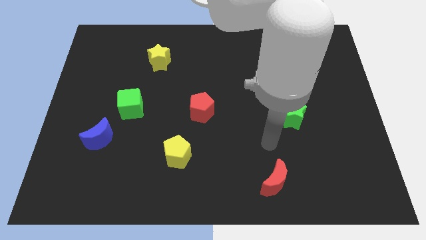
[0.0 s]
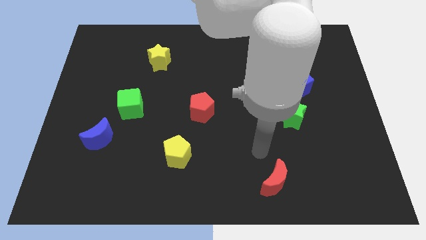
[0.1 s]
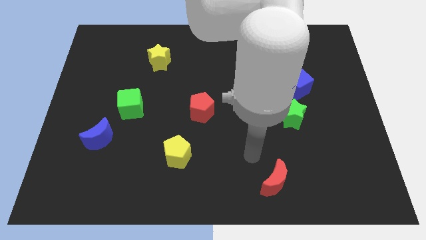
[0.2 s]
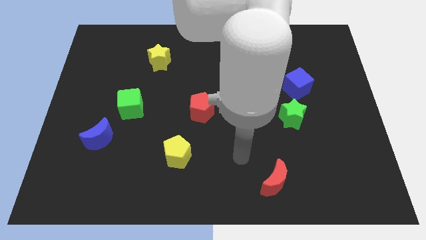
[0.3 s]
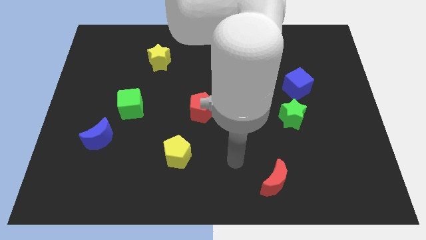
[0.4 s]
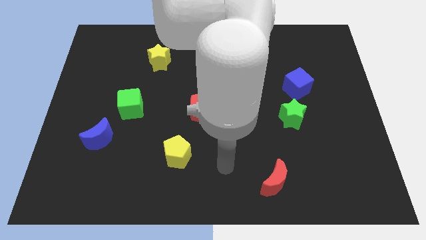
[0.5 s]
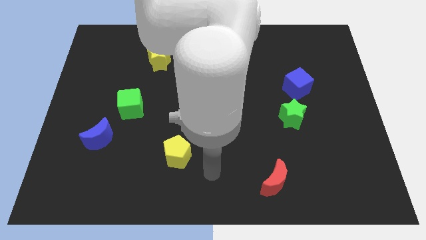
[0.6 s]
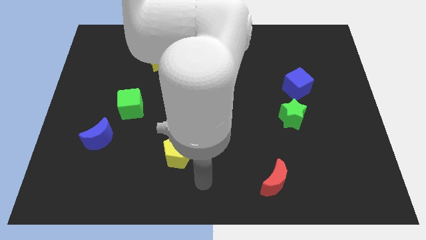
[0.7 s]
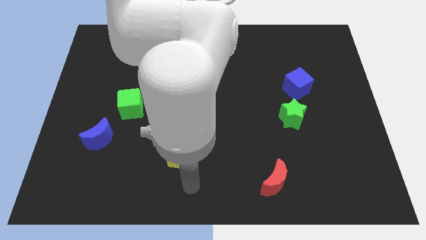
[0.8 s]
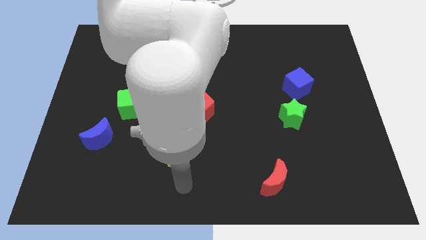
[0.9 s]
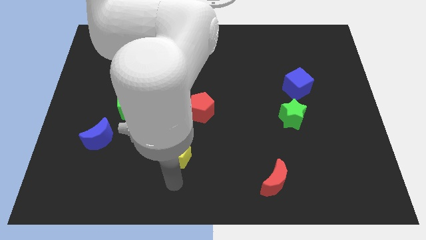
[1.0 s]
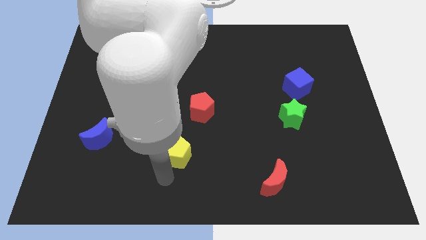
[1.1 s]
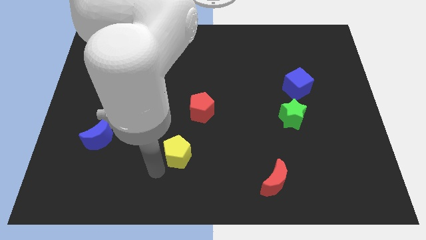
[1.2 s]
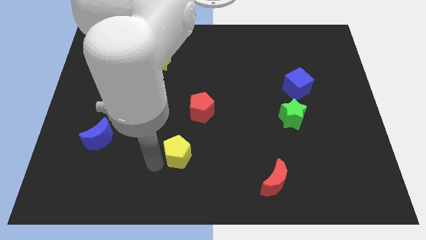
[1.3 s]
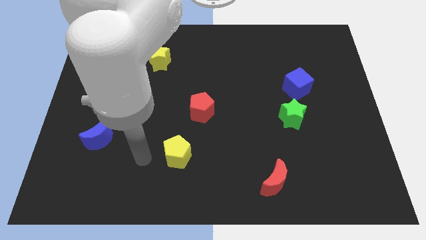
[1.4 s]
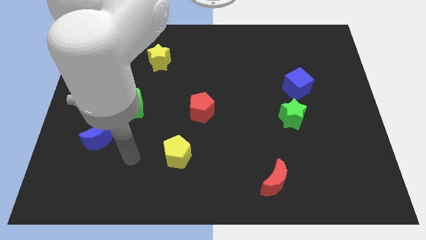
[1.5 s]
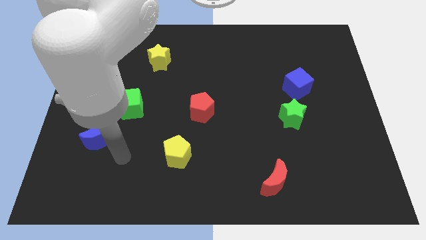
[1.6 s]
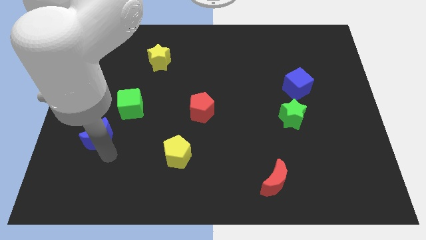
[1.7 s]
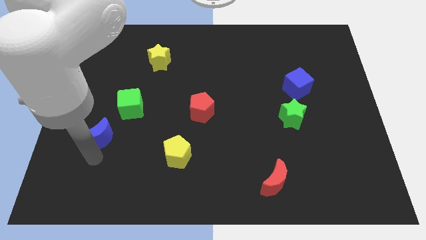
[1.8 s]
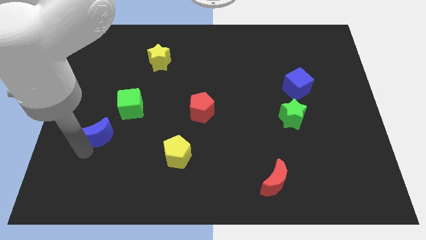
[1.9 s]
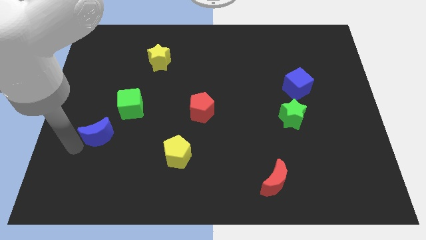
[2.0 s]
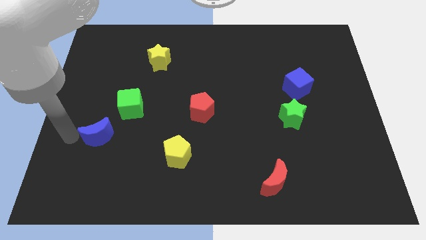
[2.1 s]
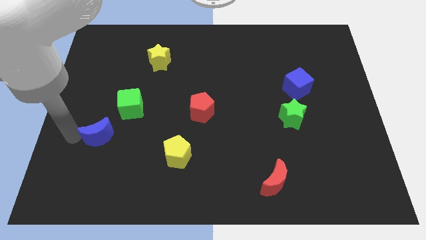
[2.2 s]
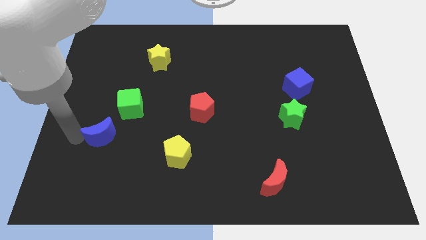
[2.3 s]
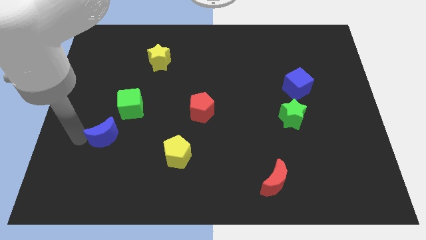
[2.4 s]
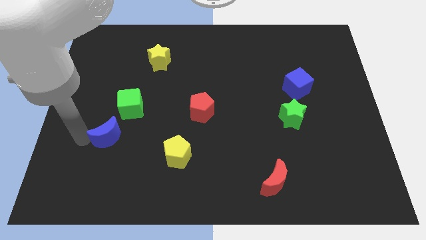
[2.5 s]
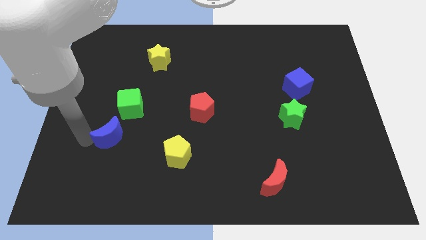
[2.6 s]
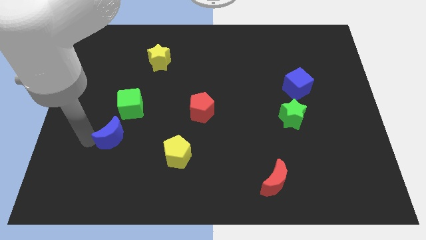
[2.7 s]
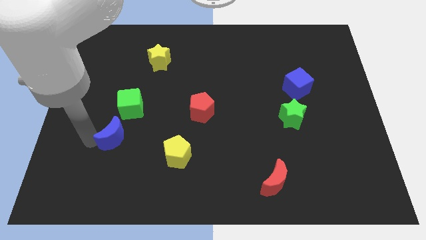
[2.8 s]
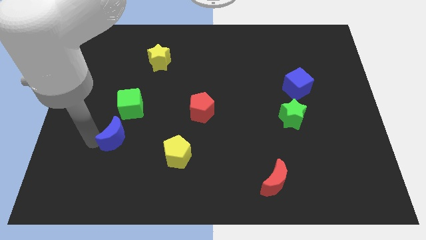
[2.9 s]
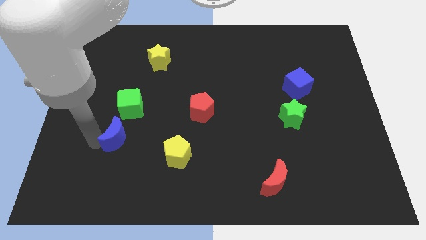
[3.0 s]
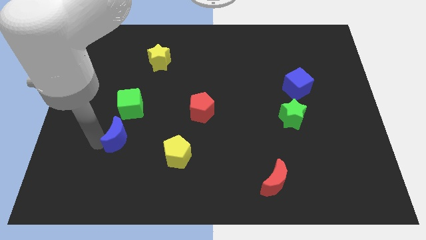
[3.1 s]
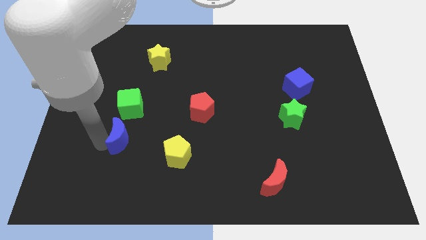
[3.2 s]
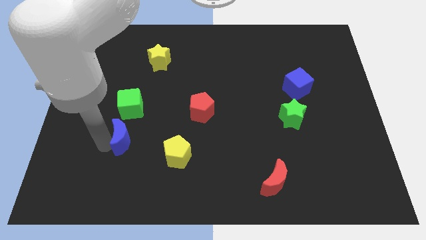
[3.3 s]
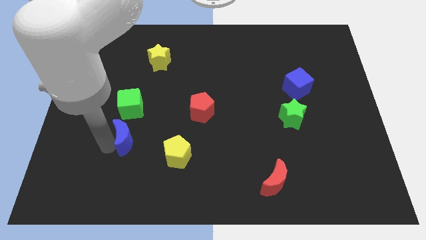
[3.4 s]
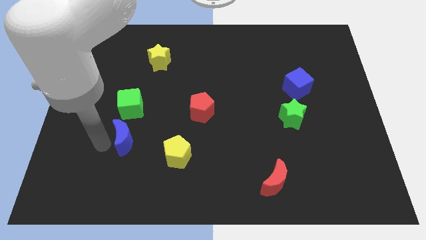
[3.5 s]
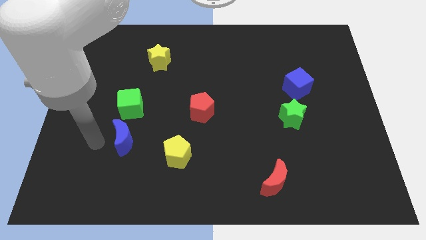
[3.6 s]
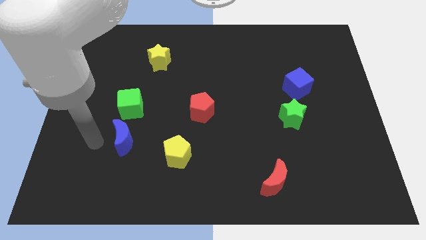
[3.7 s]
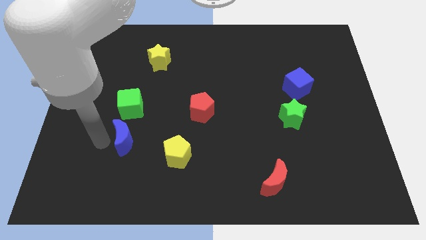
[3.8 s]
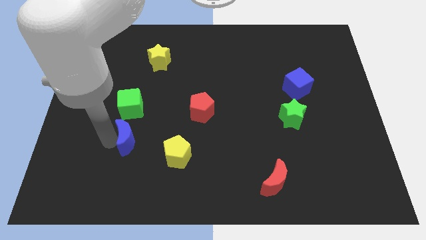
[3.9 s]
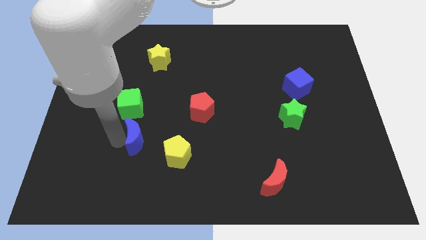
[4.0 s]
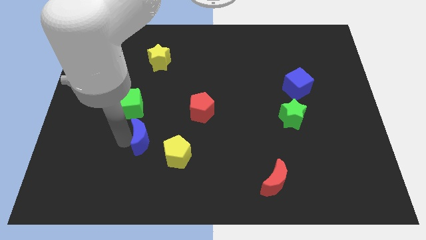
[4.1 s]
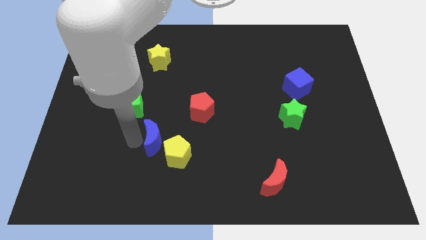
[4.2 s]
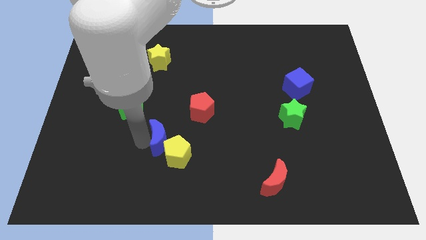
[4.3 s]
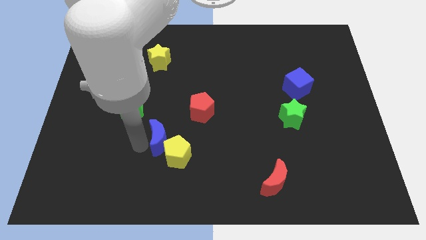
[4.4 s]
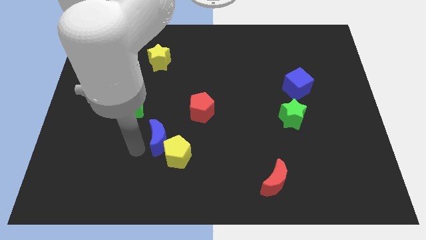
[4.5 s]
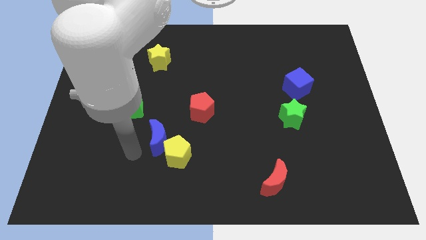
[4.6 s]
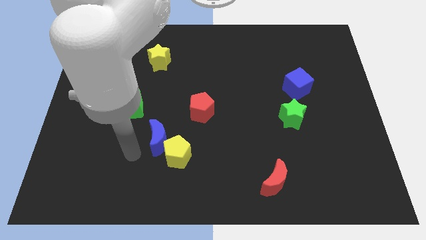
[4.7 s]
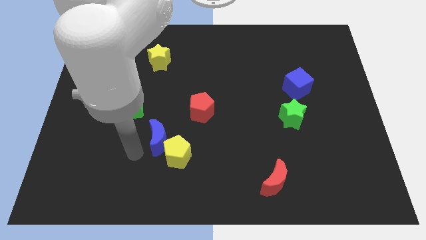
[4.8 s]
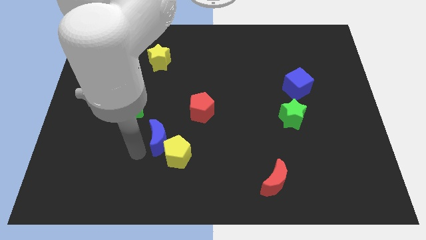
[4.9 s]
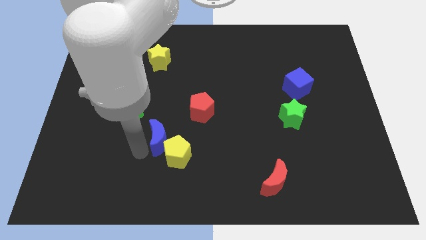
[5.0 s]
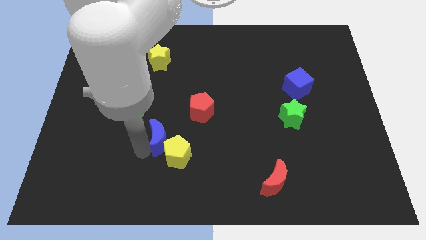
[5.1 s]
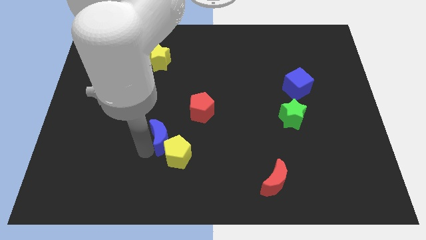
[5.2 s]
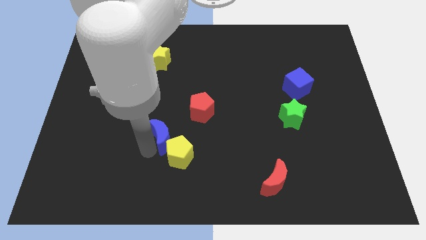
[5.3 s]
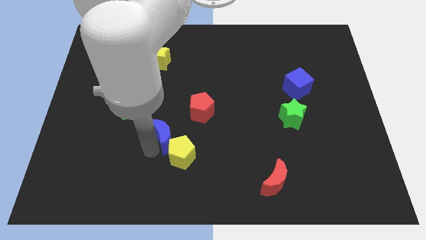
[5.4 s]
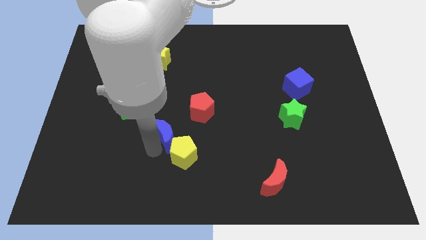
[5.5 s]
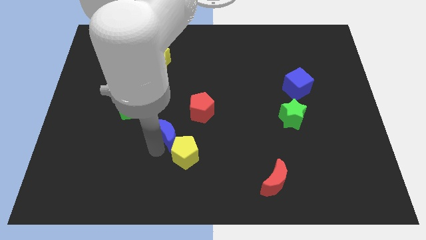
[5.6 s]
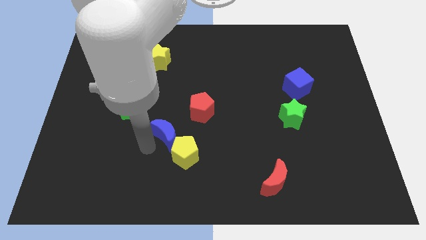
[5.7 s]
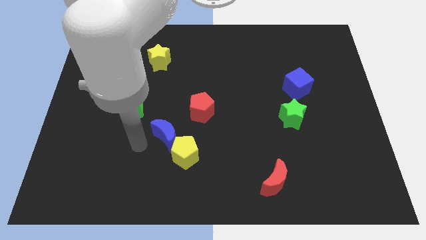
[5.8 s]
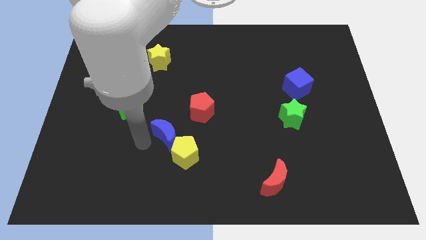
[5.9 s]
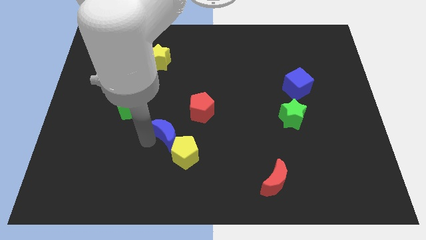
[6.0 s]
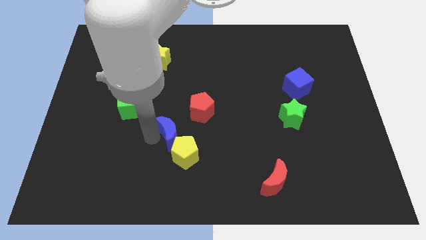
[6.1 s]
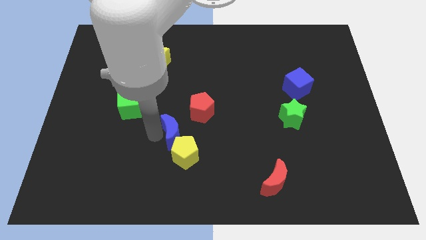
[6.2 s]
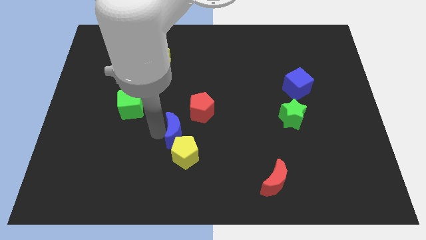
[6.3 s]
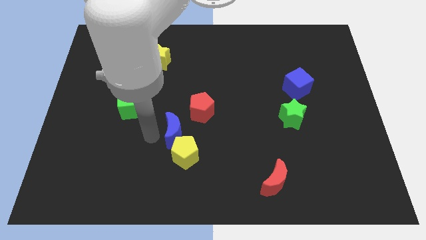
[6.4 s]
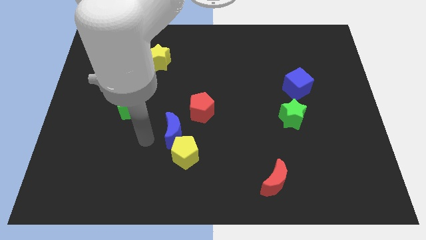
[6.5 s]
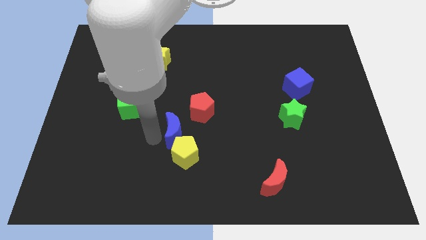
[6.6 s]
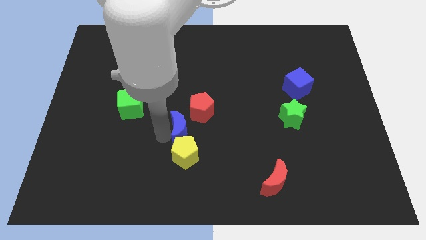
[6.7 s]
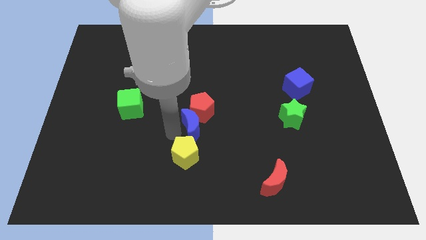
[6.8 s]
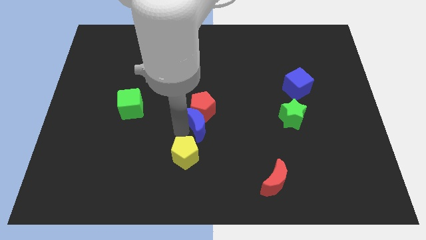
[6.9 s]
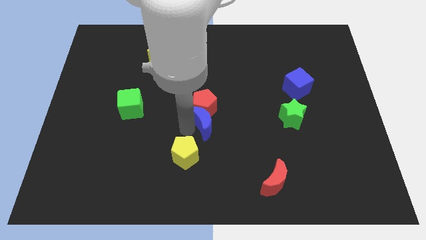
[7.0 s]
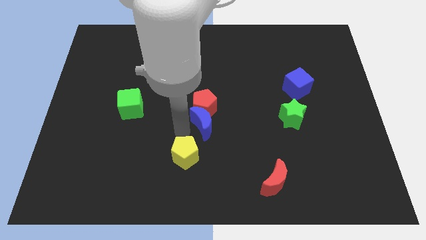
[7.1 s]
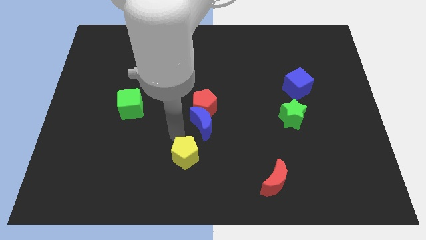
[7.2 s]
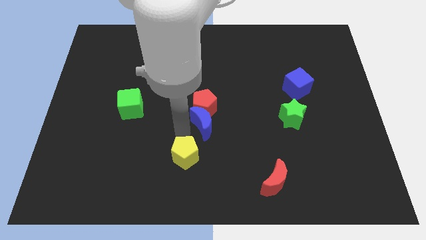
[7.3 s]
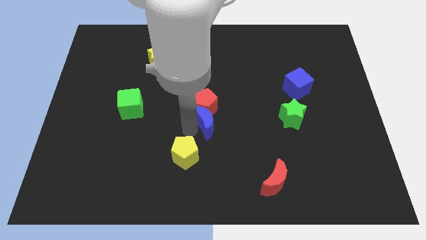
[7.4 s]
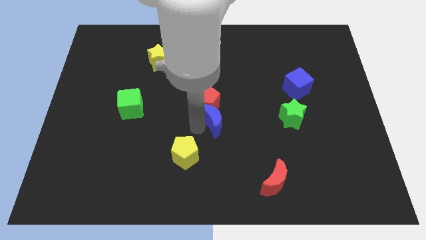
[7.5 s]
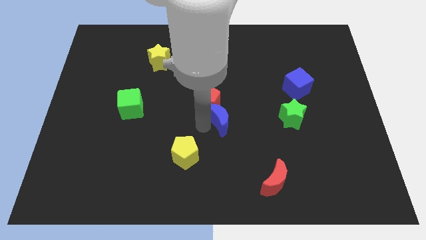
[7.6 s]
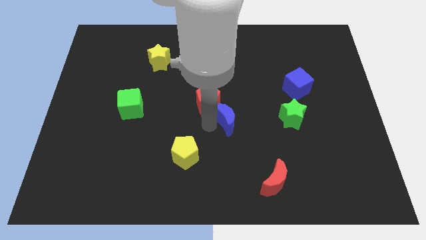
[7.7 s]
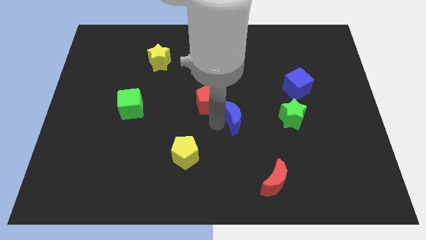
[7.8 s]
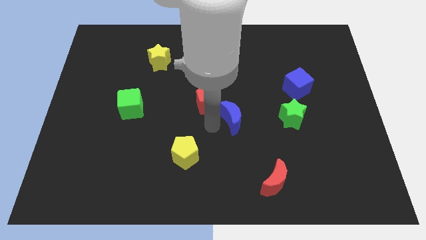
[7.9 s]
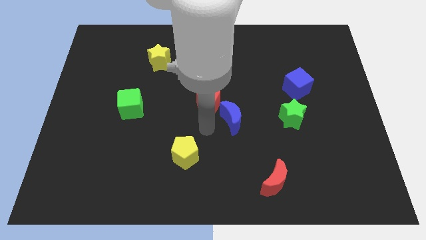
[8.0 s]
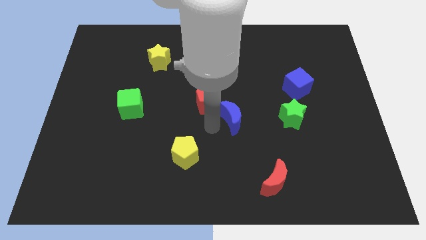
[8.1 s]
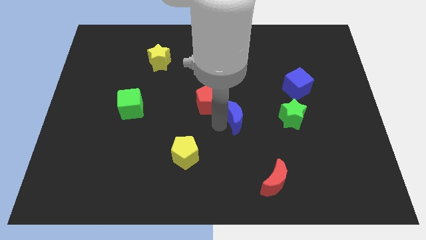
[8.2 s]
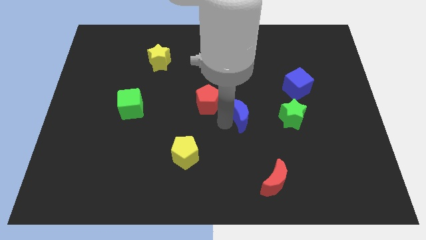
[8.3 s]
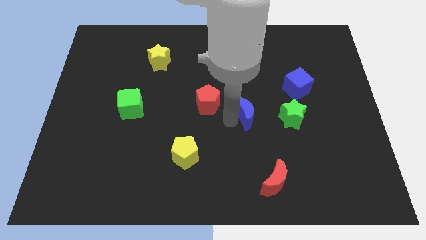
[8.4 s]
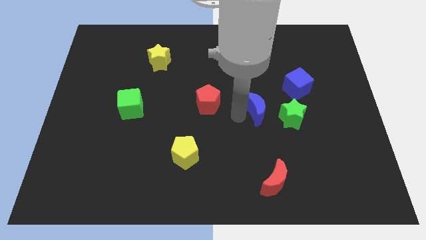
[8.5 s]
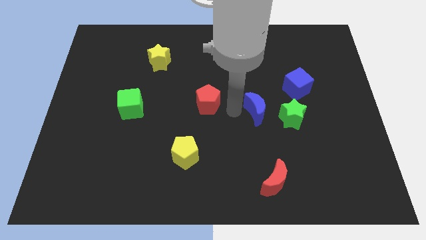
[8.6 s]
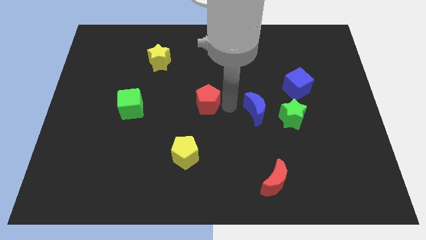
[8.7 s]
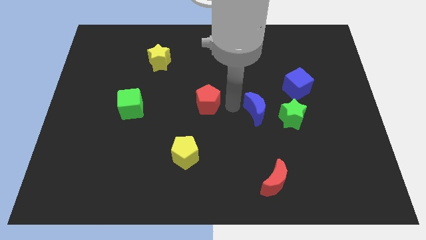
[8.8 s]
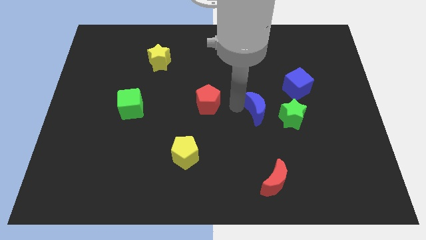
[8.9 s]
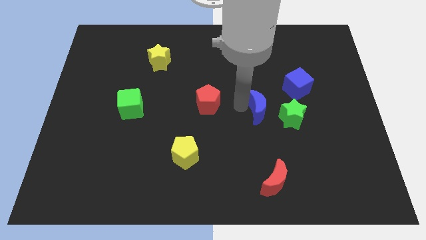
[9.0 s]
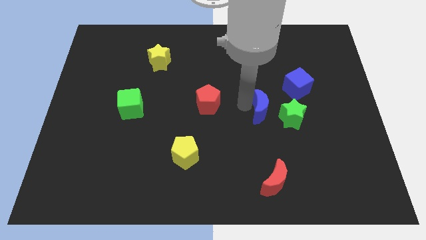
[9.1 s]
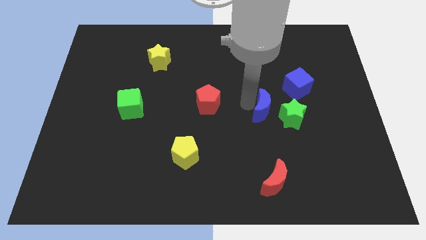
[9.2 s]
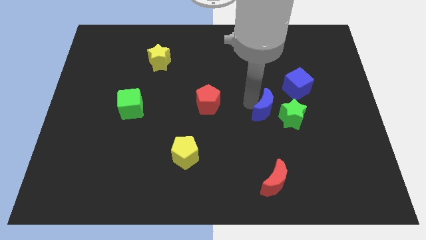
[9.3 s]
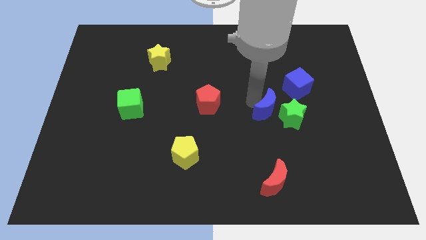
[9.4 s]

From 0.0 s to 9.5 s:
put the blue moon towards the green star
